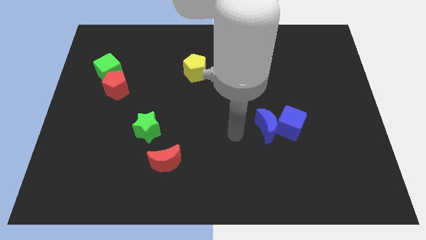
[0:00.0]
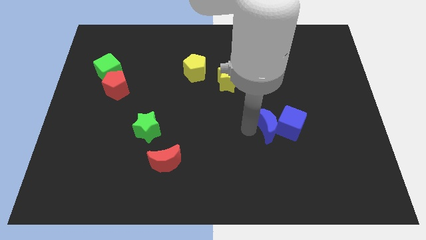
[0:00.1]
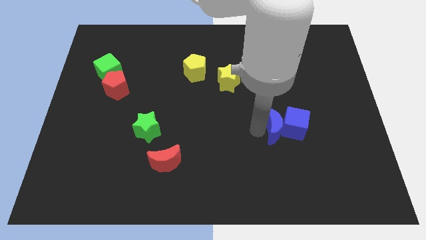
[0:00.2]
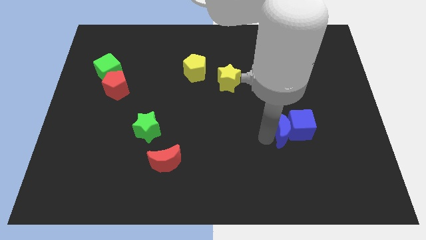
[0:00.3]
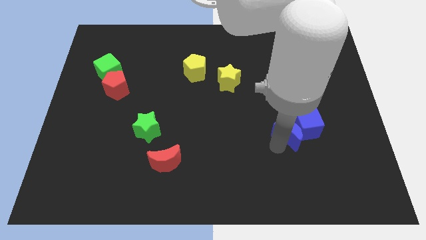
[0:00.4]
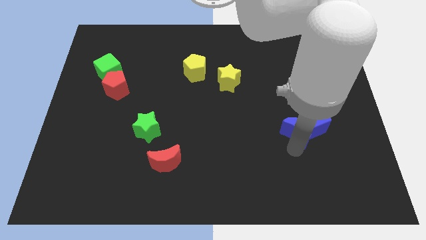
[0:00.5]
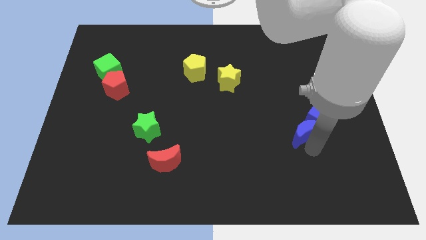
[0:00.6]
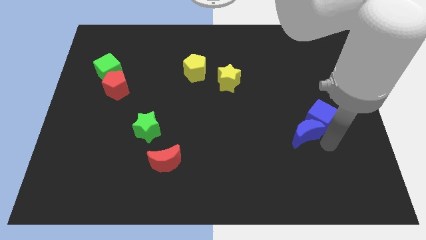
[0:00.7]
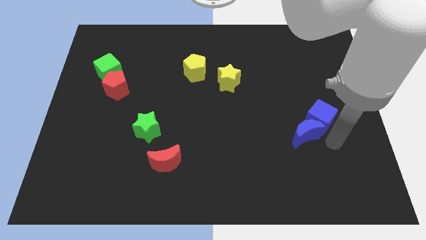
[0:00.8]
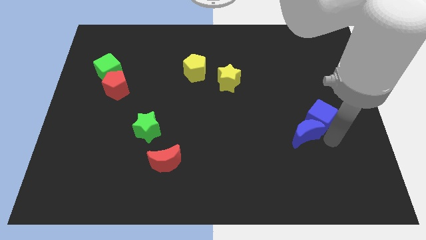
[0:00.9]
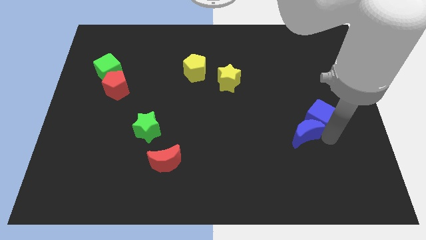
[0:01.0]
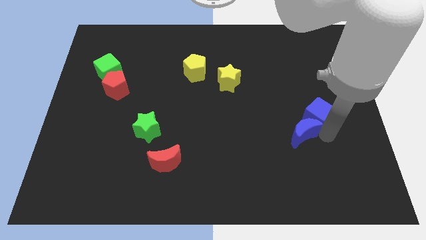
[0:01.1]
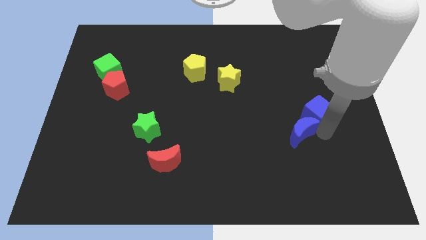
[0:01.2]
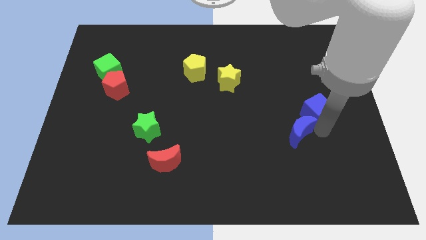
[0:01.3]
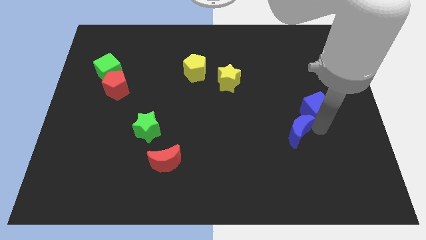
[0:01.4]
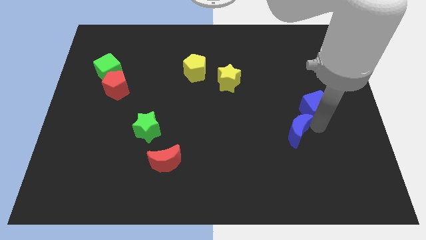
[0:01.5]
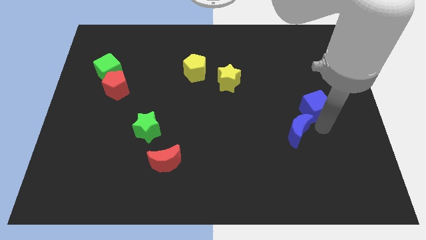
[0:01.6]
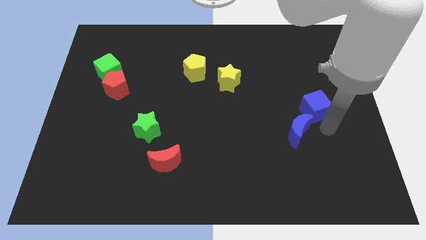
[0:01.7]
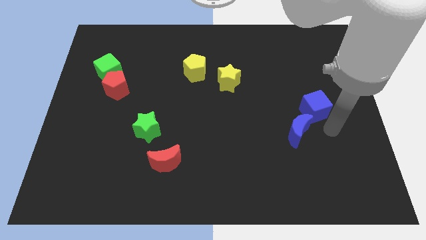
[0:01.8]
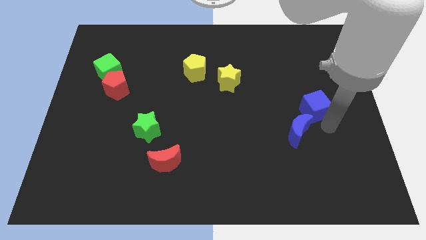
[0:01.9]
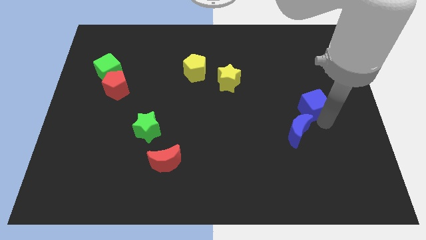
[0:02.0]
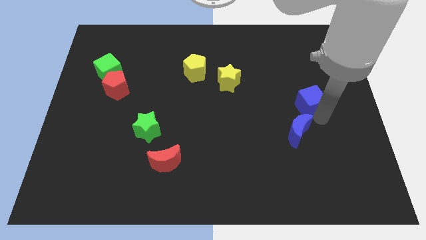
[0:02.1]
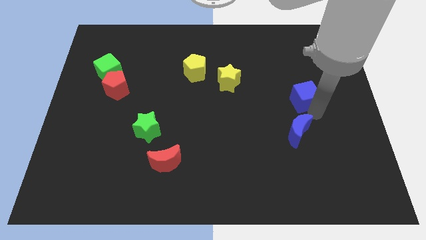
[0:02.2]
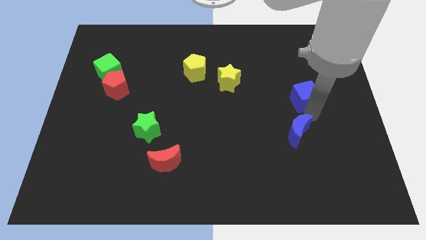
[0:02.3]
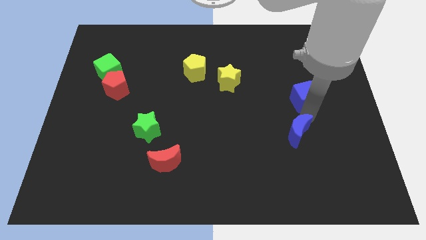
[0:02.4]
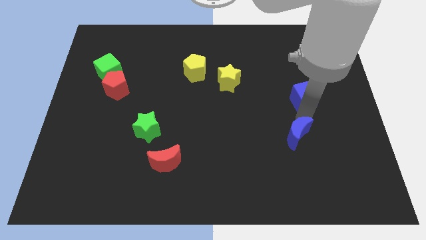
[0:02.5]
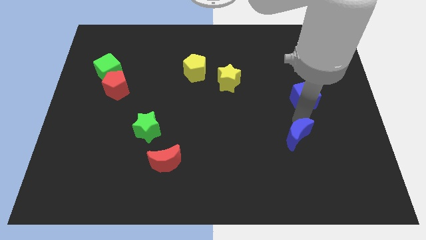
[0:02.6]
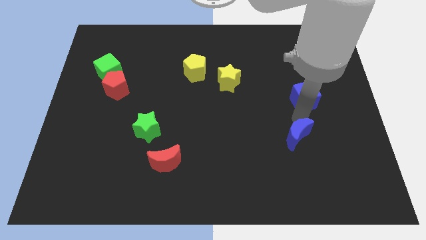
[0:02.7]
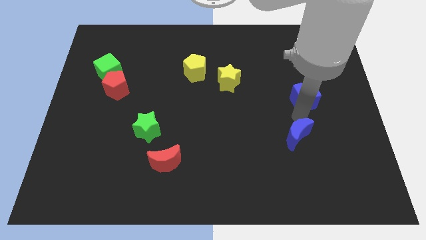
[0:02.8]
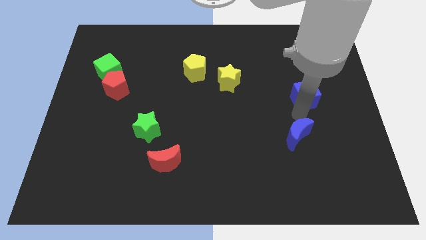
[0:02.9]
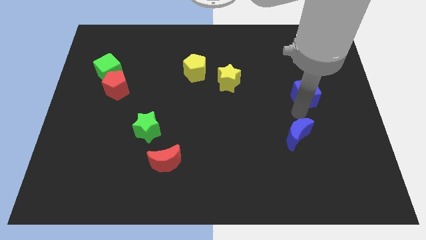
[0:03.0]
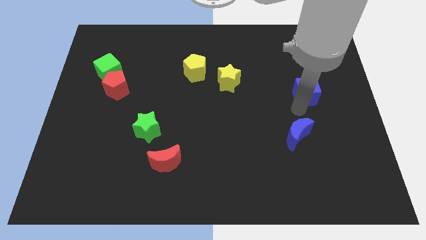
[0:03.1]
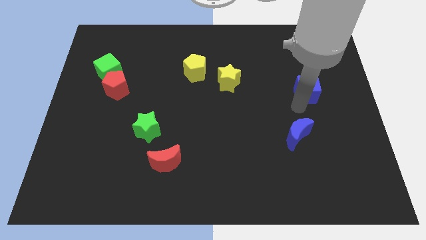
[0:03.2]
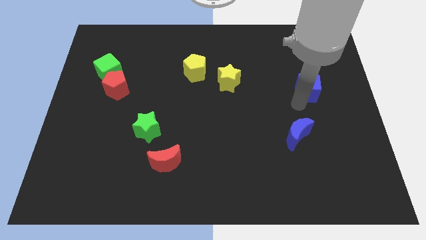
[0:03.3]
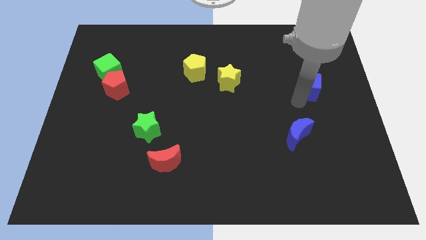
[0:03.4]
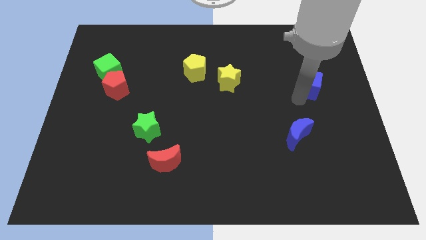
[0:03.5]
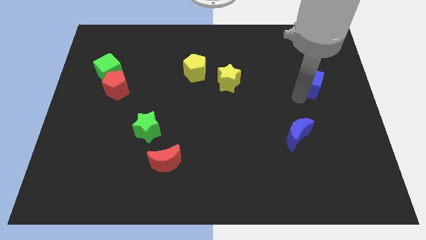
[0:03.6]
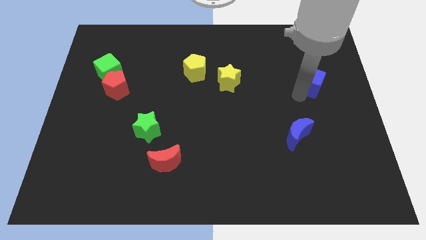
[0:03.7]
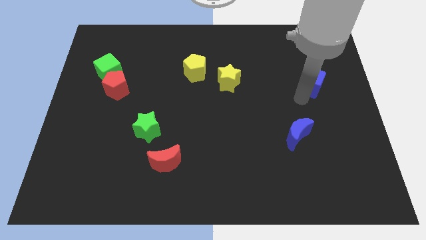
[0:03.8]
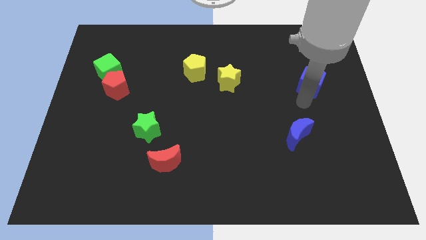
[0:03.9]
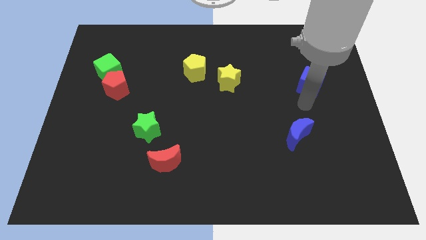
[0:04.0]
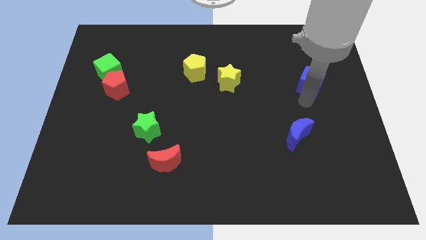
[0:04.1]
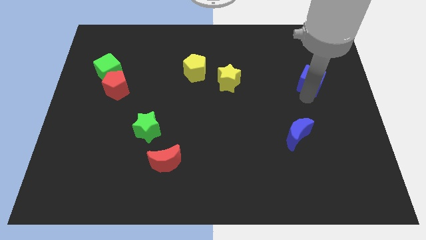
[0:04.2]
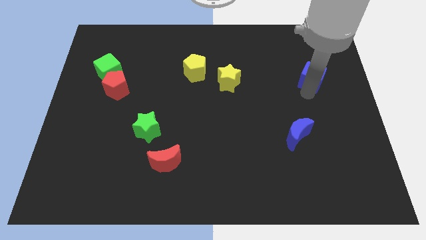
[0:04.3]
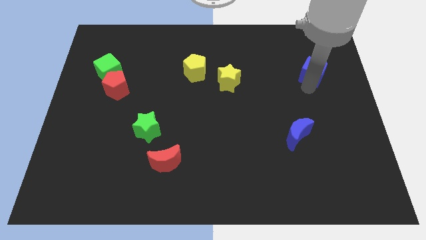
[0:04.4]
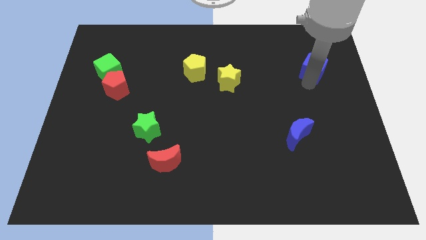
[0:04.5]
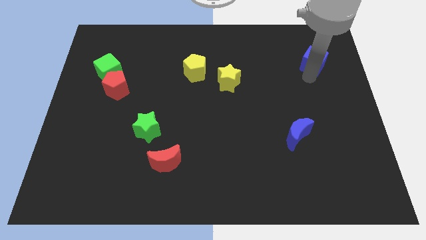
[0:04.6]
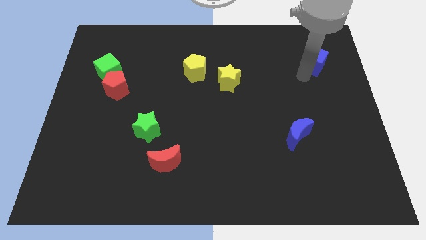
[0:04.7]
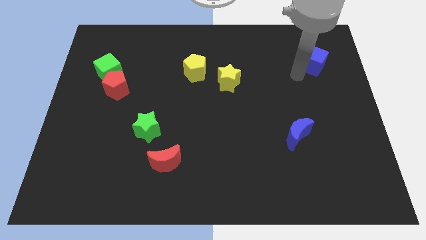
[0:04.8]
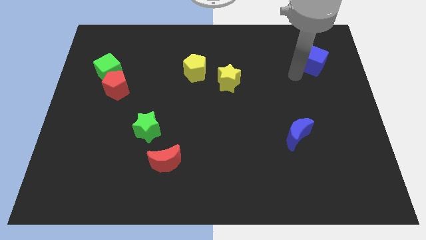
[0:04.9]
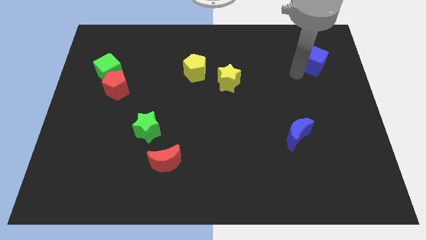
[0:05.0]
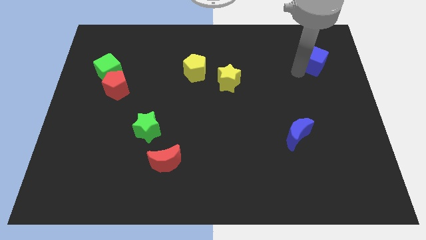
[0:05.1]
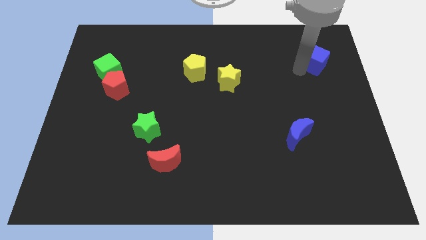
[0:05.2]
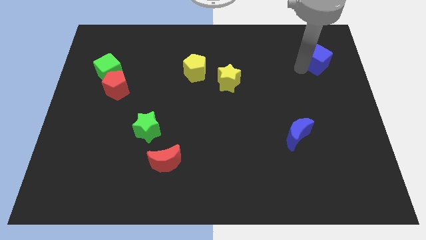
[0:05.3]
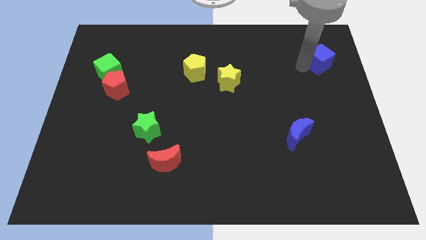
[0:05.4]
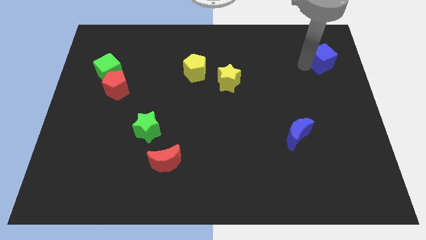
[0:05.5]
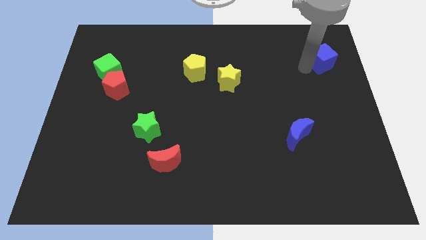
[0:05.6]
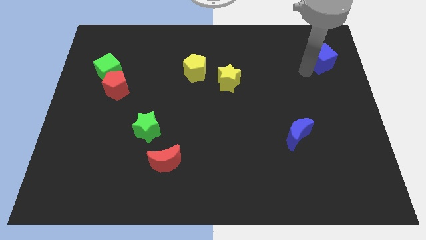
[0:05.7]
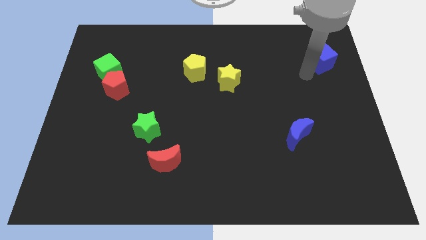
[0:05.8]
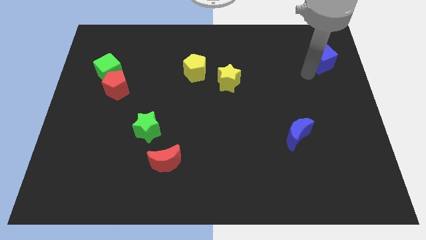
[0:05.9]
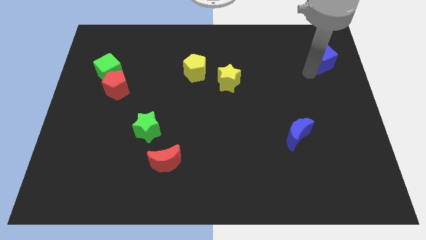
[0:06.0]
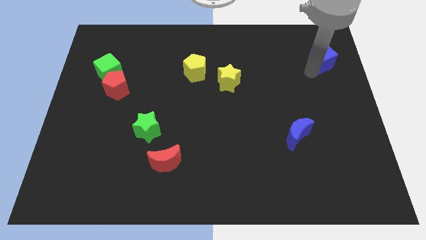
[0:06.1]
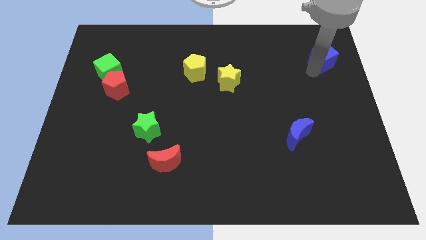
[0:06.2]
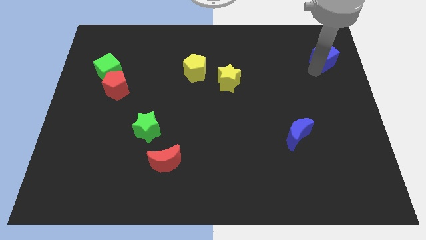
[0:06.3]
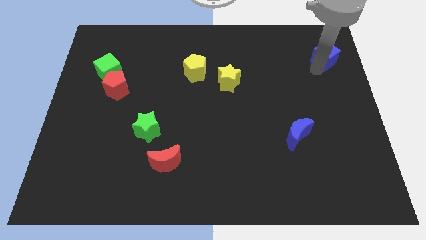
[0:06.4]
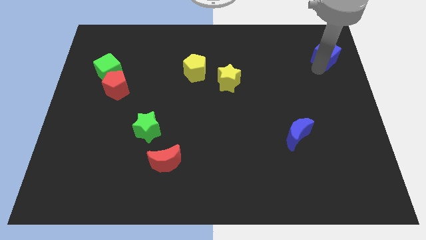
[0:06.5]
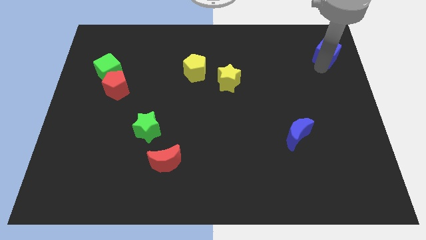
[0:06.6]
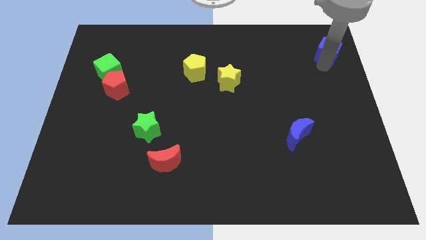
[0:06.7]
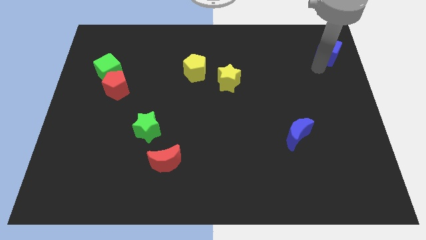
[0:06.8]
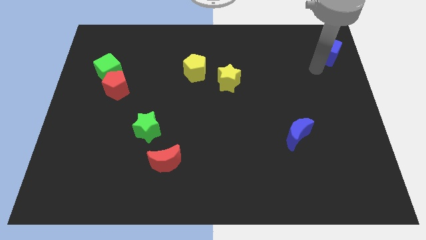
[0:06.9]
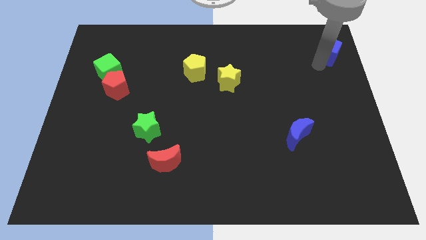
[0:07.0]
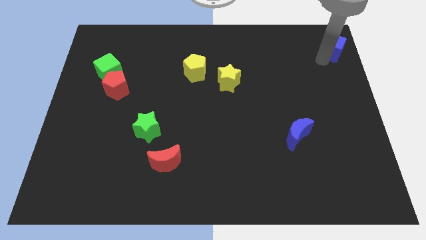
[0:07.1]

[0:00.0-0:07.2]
move the blue cube to the upper right corner
